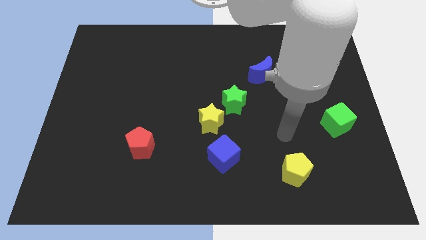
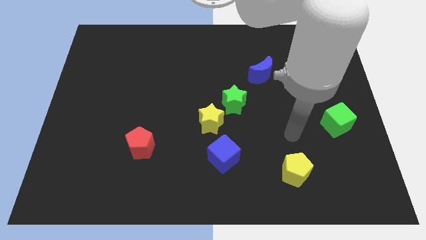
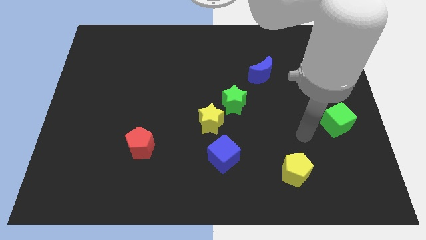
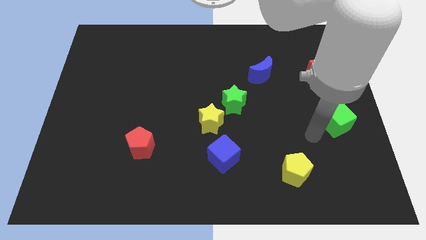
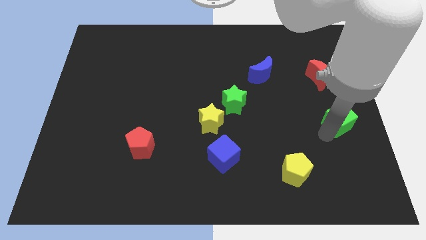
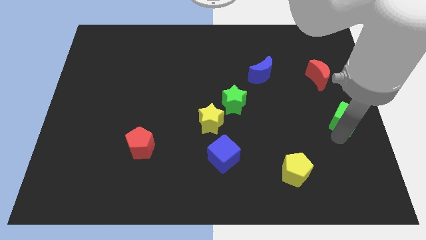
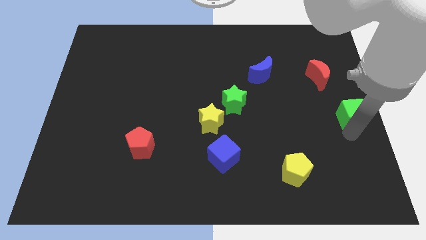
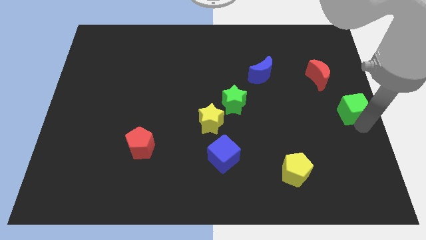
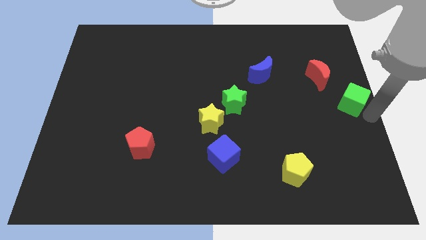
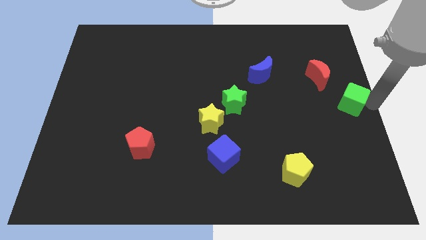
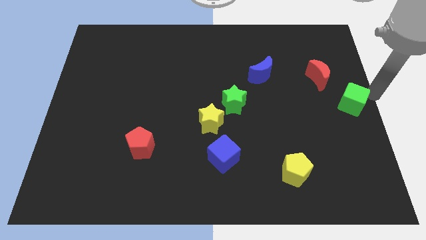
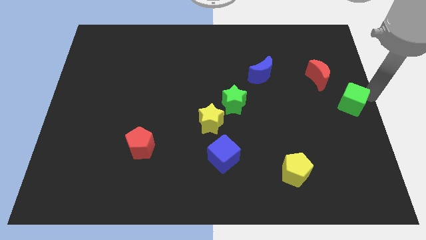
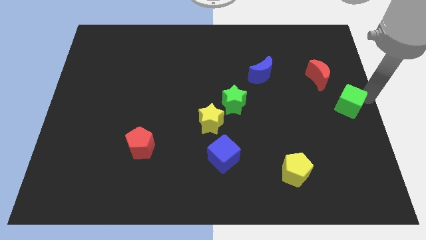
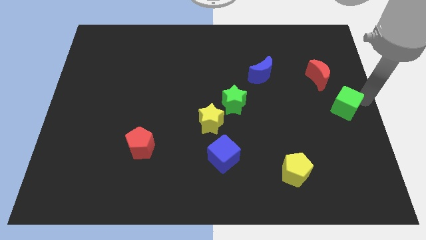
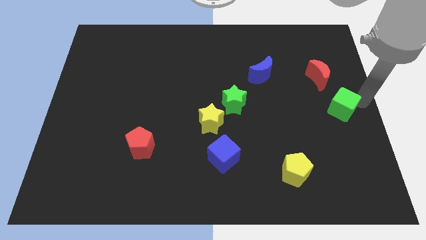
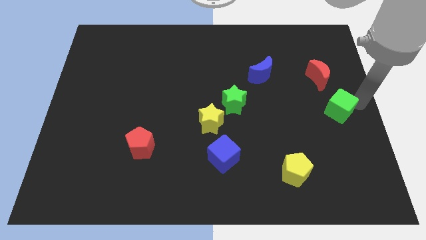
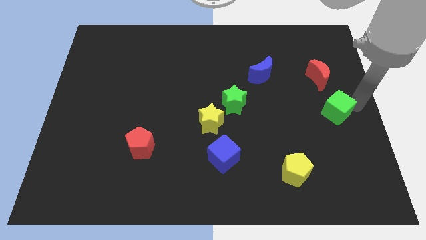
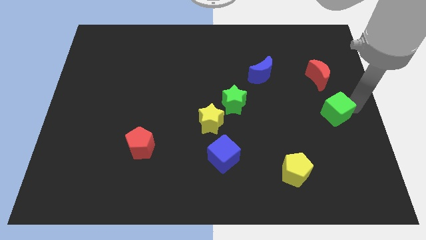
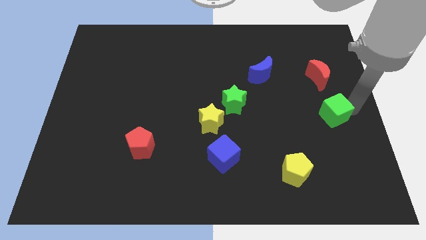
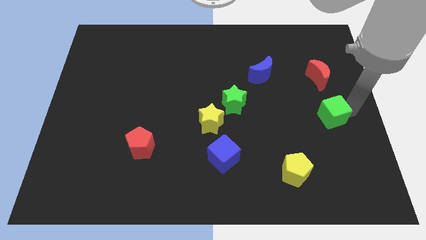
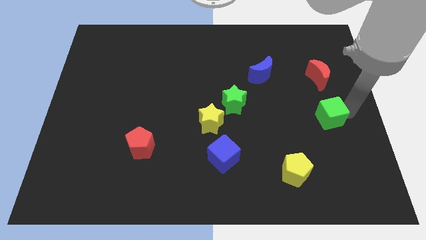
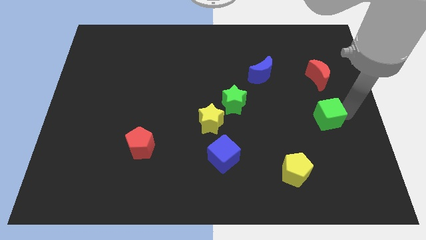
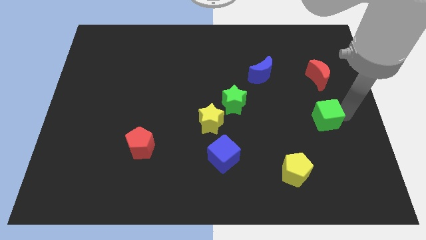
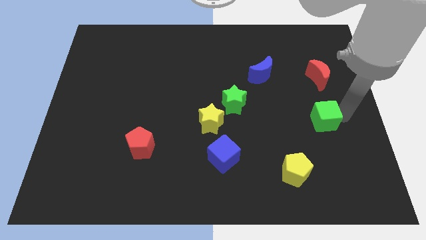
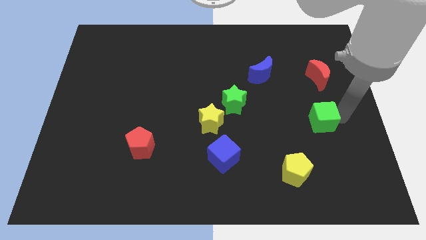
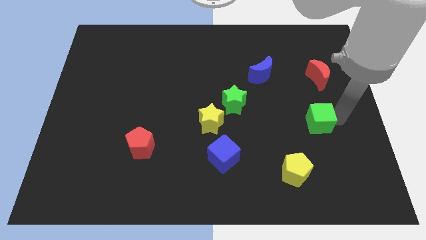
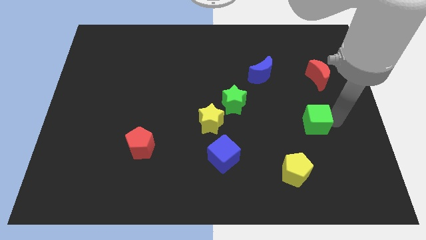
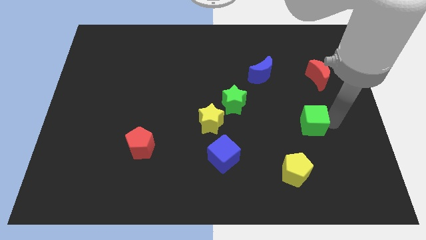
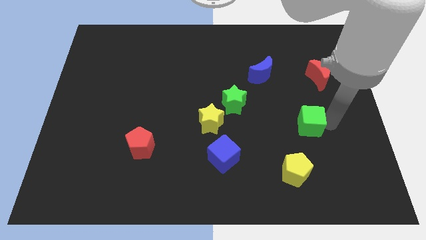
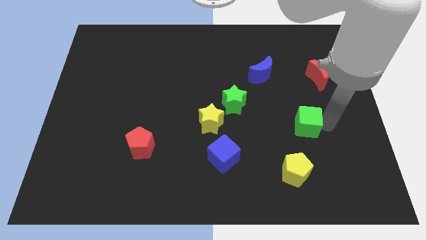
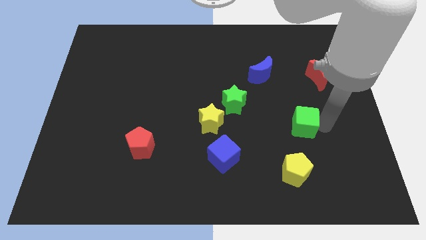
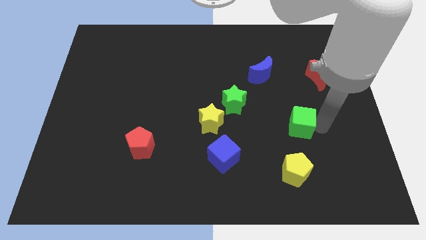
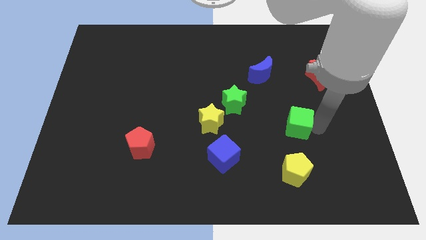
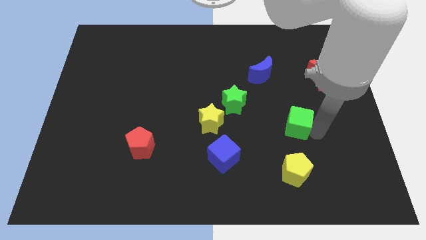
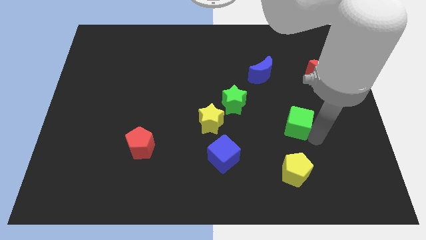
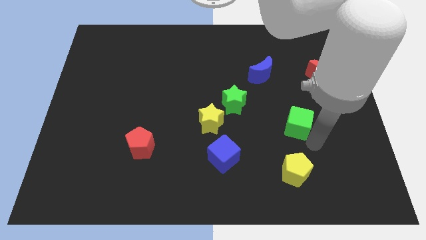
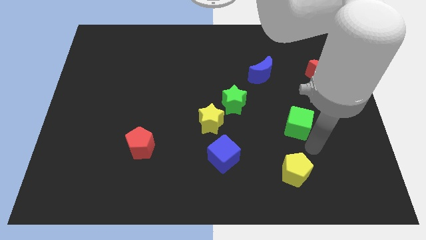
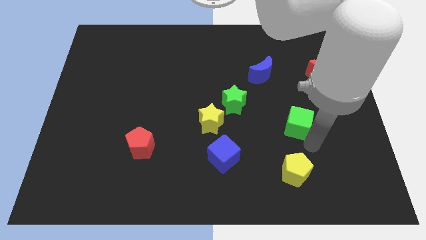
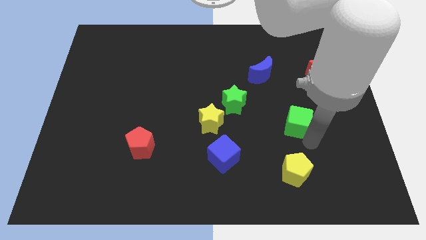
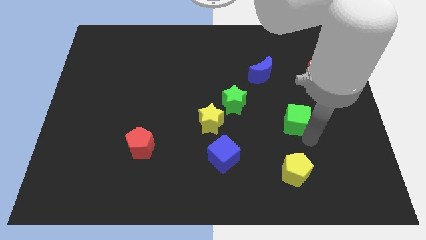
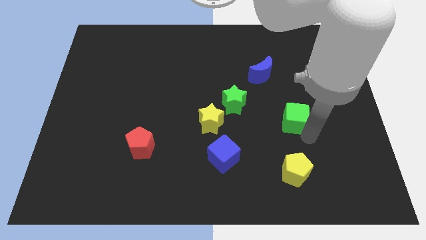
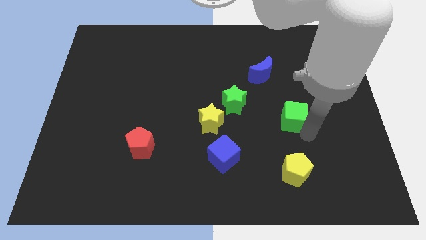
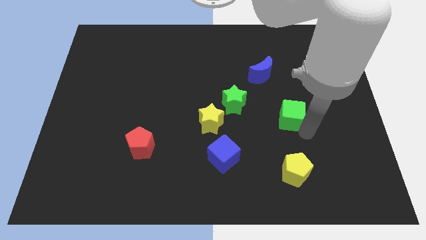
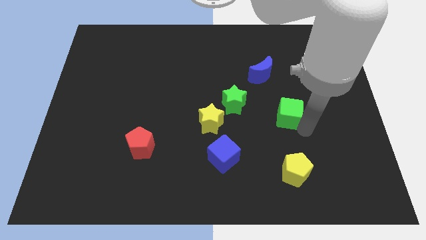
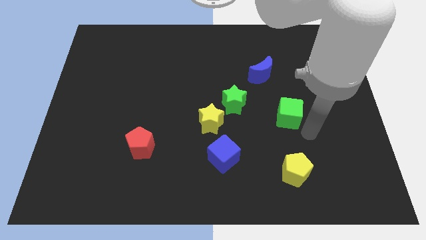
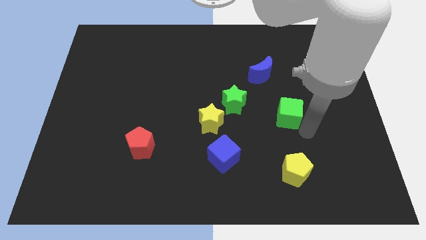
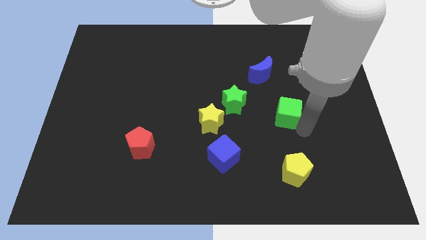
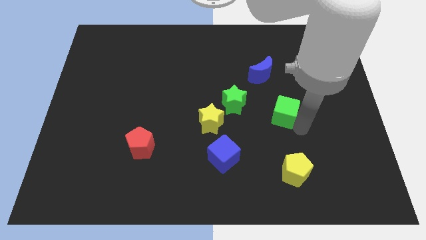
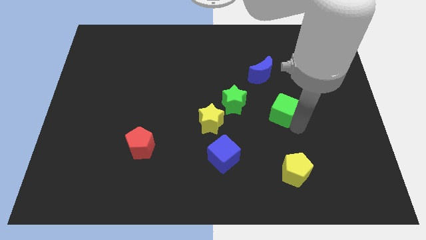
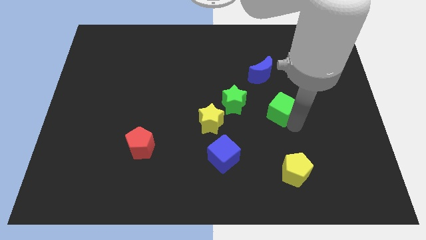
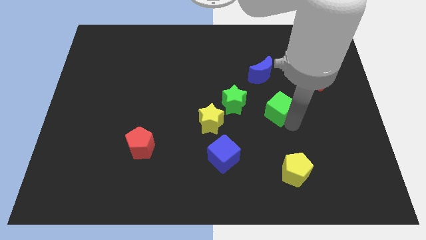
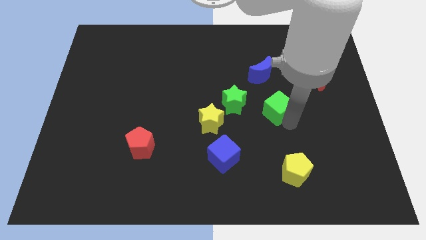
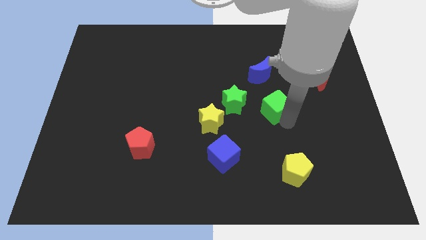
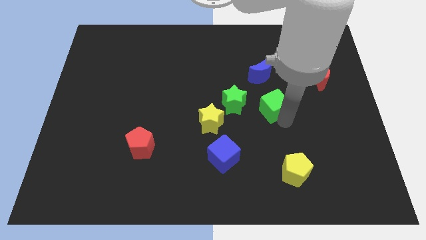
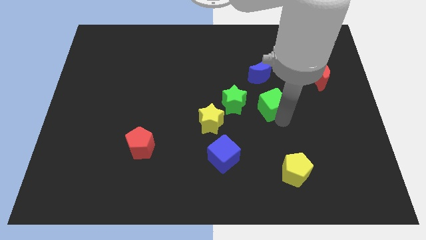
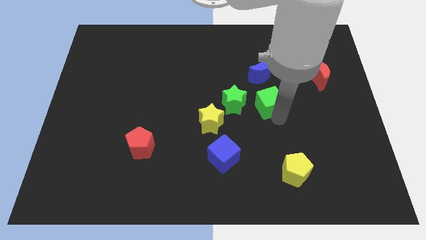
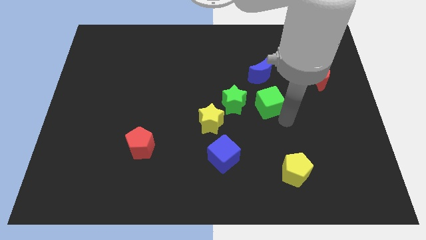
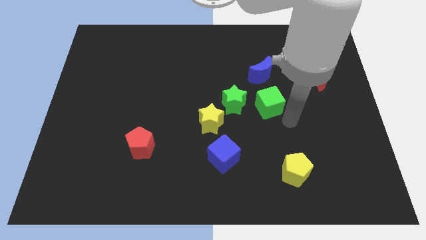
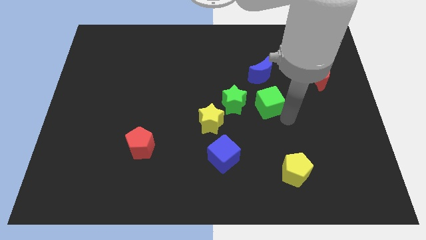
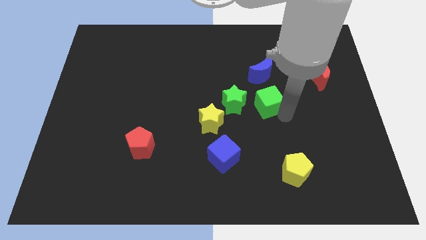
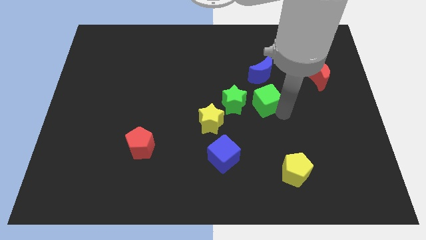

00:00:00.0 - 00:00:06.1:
push the green cube to the center
